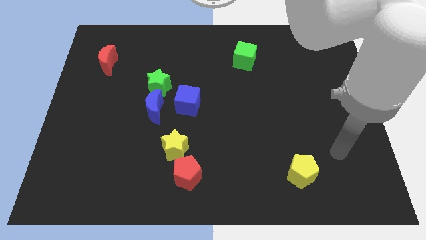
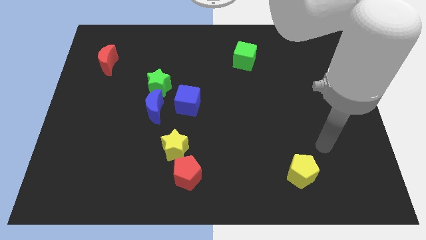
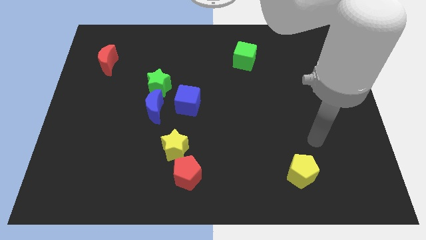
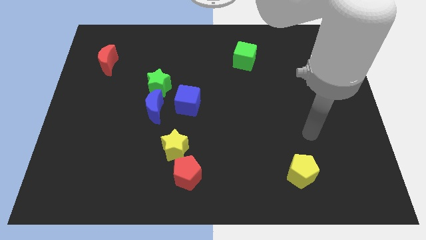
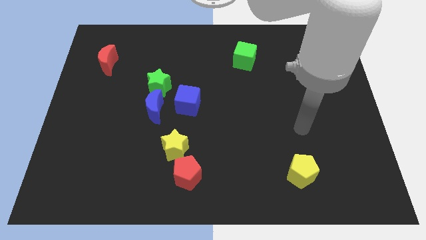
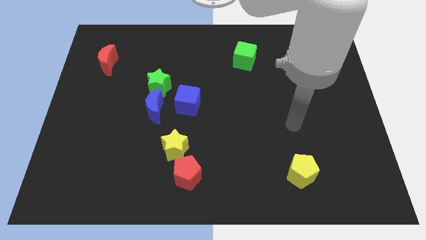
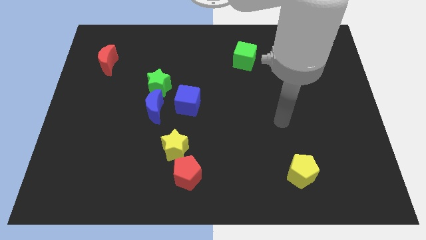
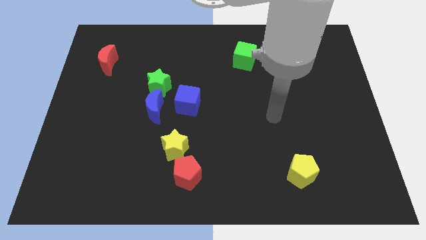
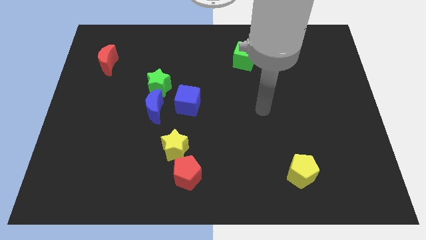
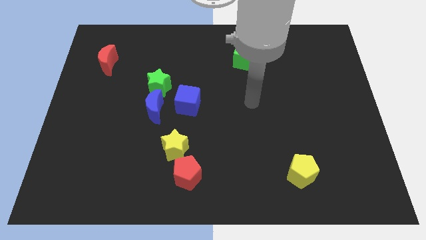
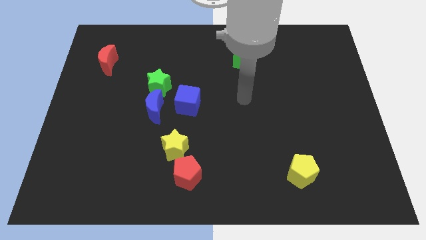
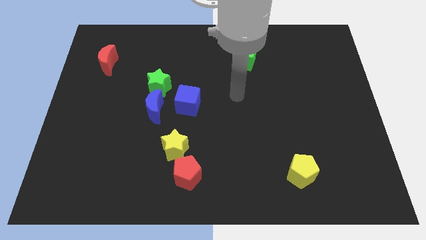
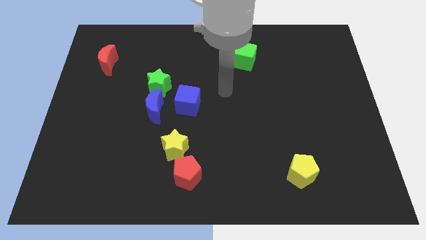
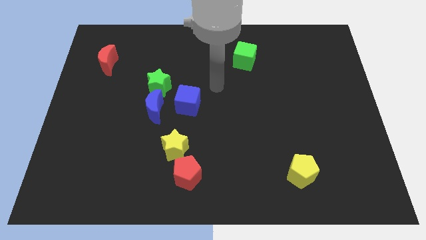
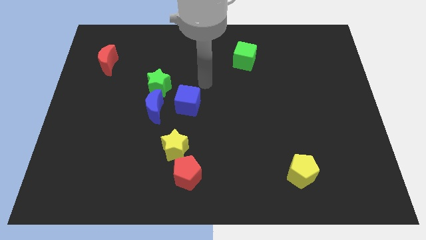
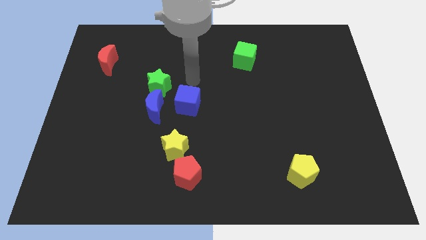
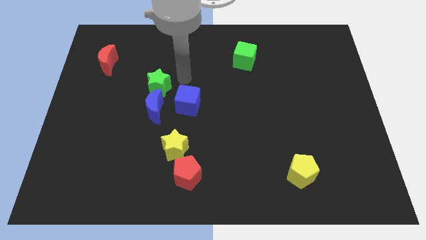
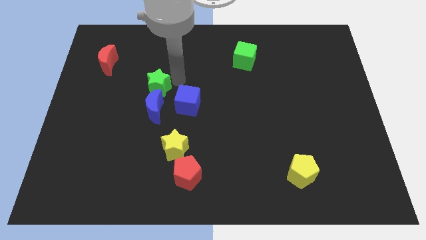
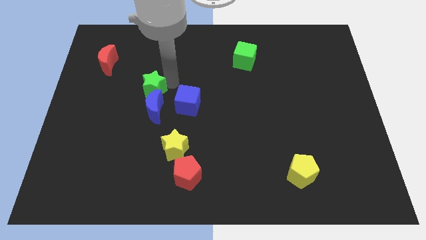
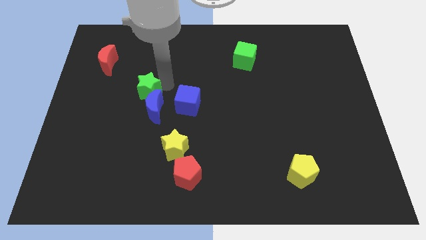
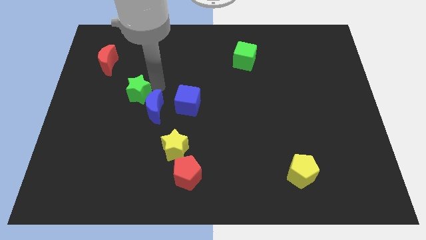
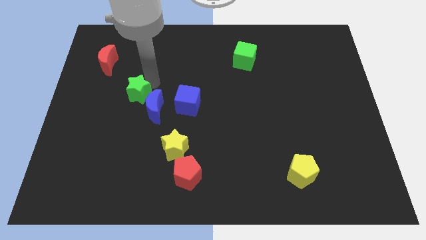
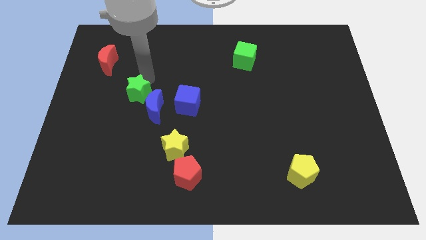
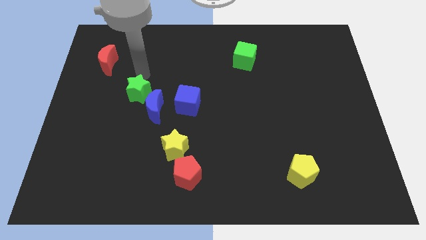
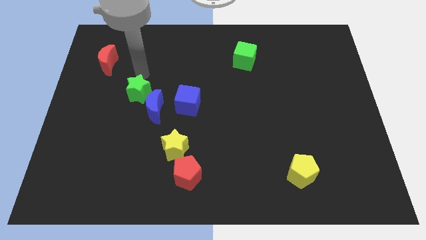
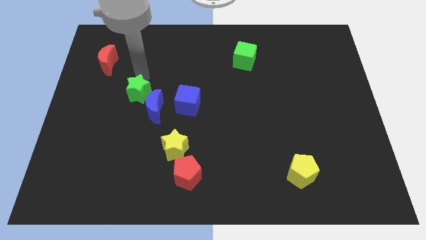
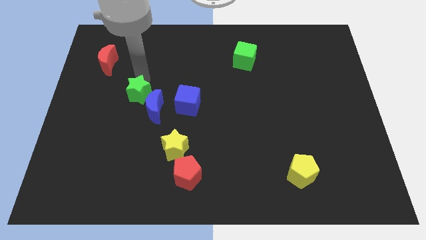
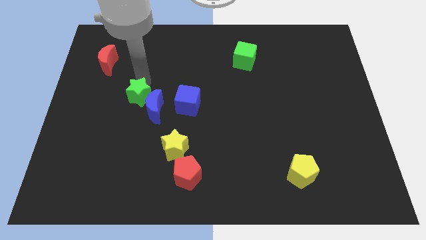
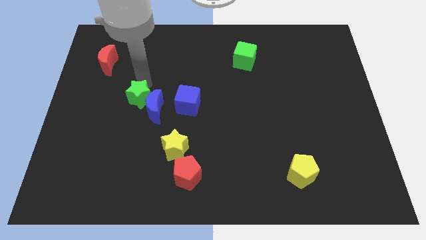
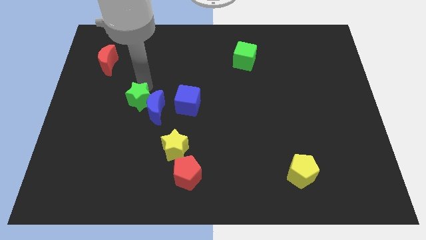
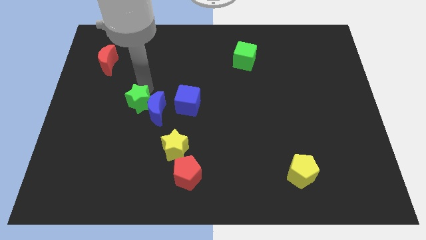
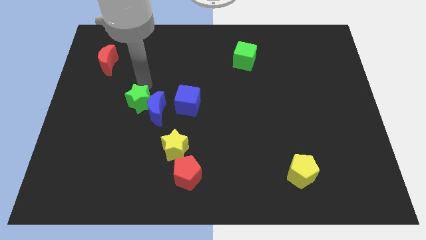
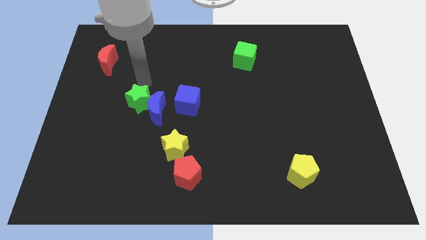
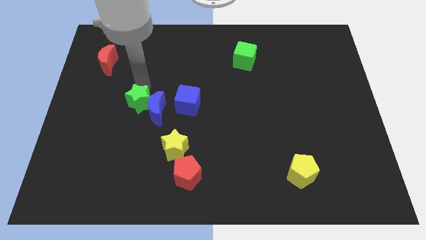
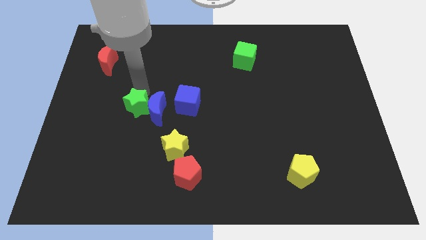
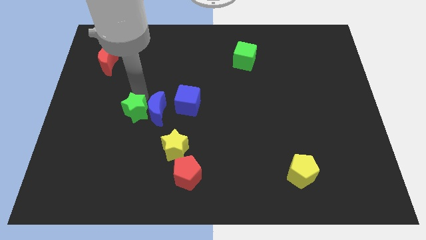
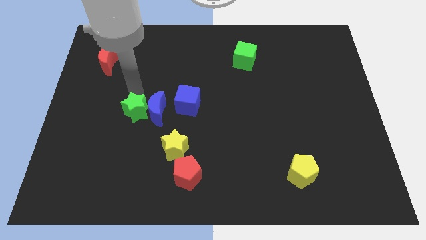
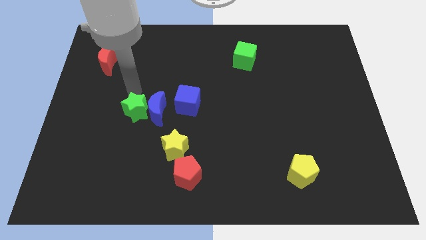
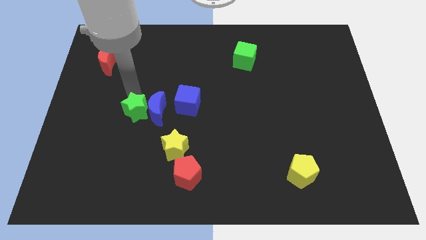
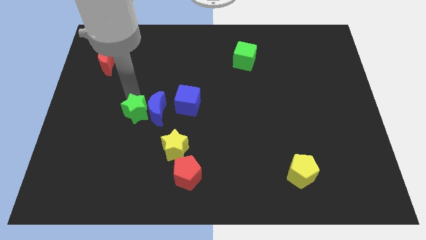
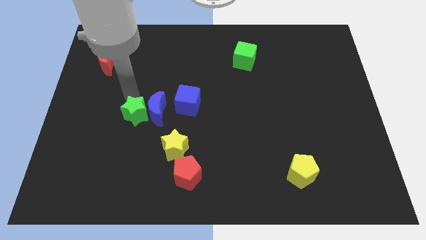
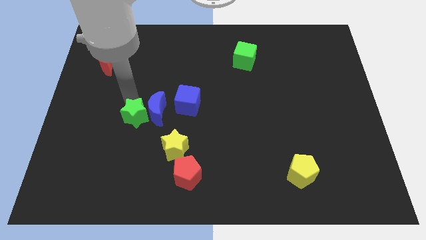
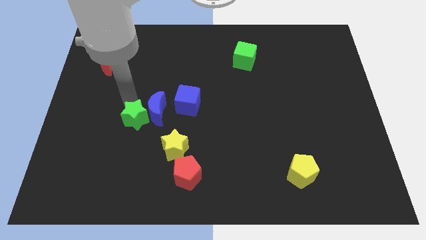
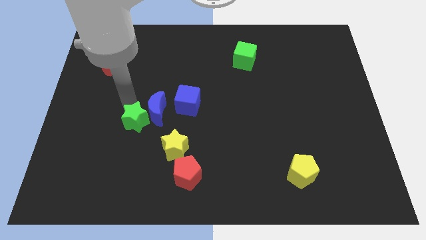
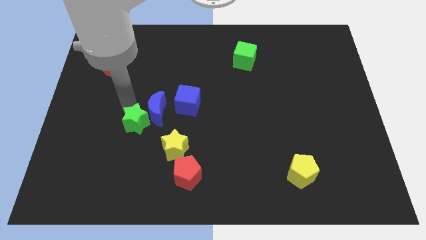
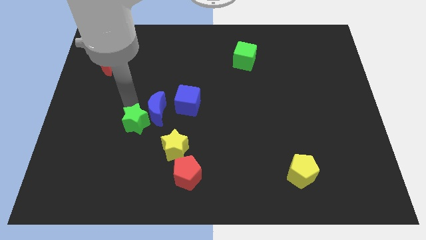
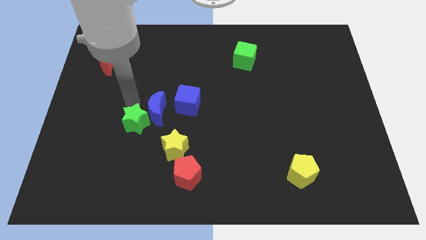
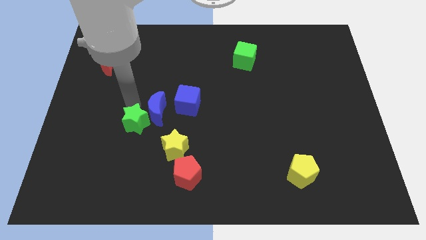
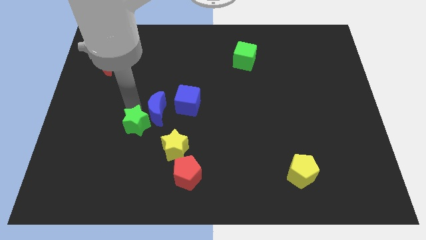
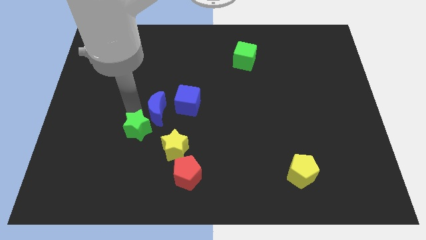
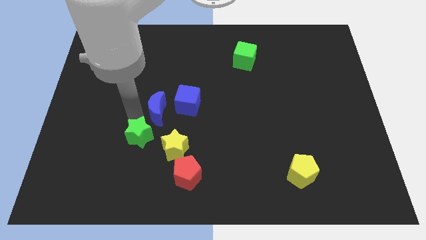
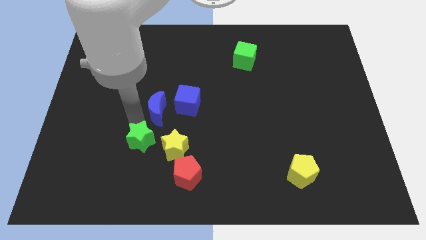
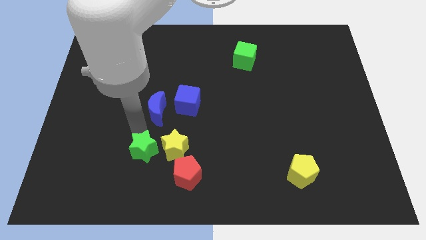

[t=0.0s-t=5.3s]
move the green star to the bottom left of the yellow star
